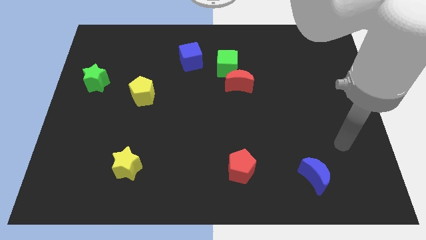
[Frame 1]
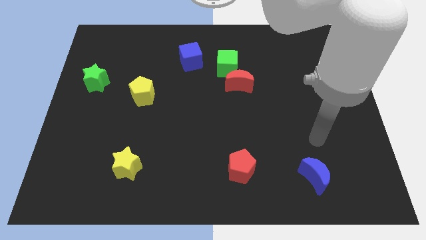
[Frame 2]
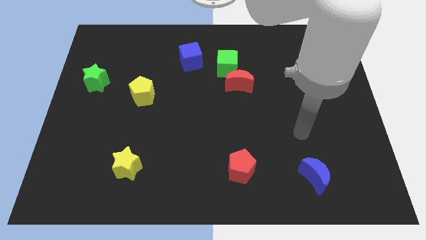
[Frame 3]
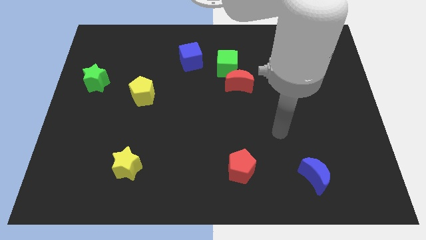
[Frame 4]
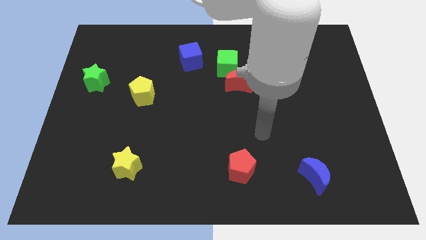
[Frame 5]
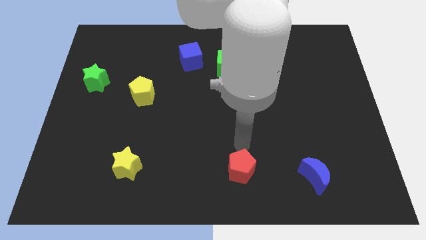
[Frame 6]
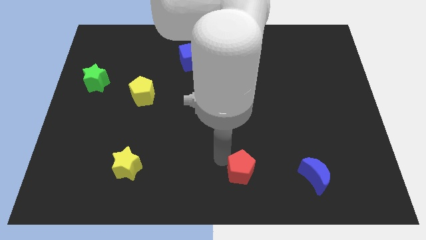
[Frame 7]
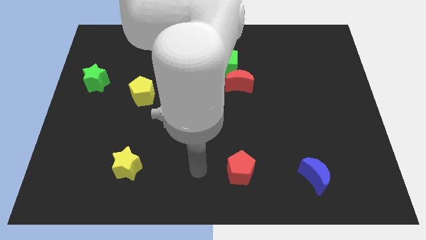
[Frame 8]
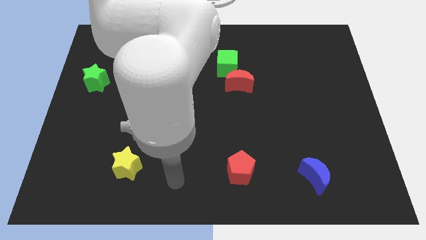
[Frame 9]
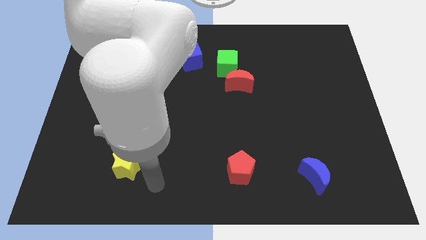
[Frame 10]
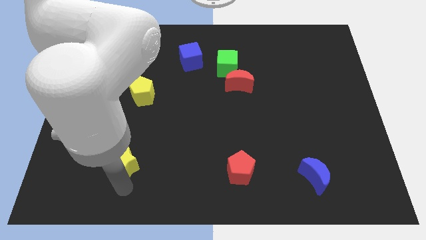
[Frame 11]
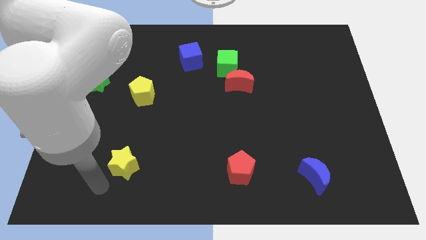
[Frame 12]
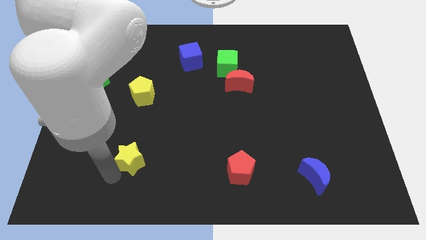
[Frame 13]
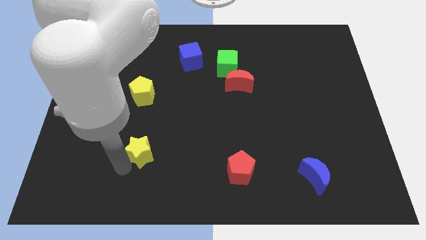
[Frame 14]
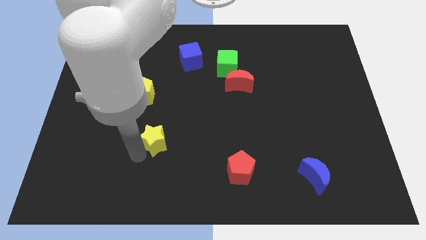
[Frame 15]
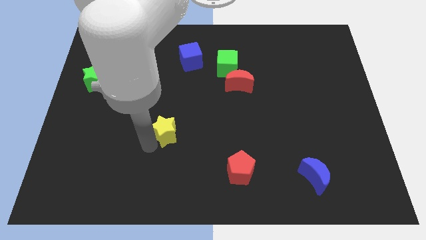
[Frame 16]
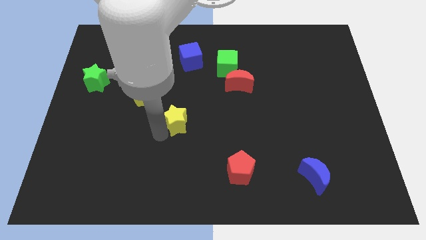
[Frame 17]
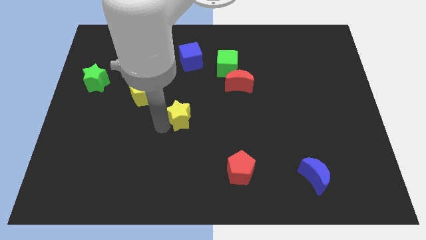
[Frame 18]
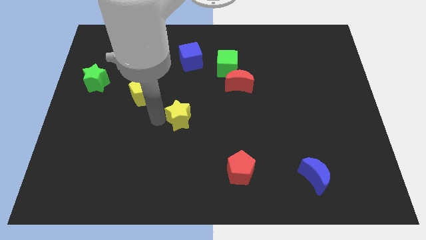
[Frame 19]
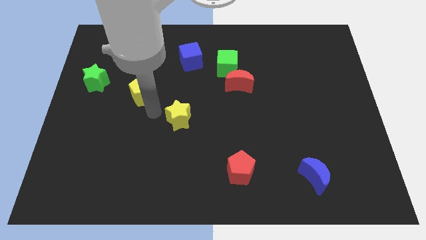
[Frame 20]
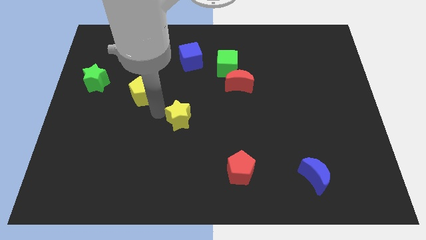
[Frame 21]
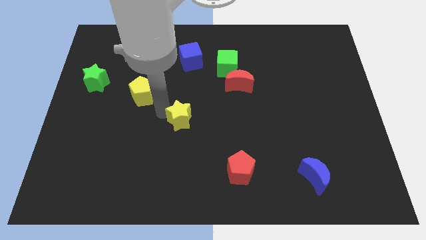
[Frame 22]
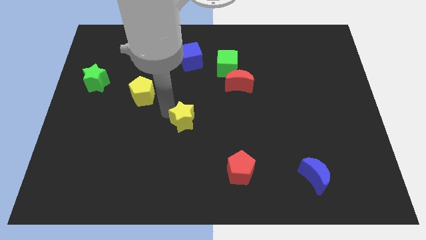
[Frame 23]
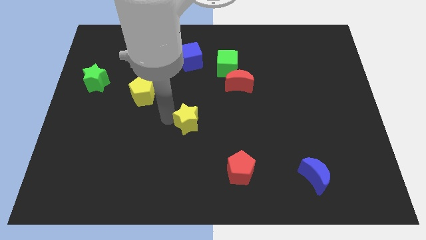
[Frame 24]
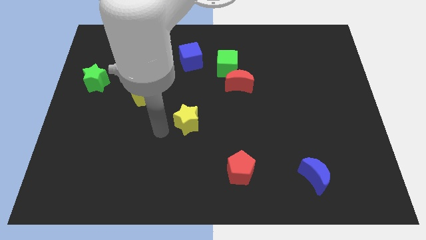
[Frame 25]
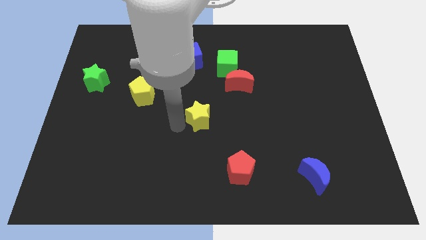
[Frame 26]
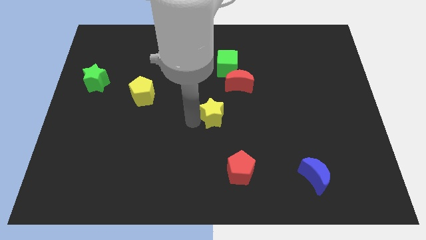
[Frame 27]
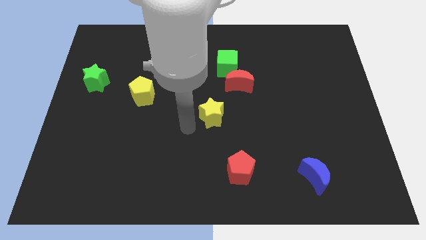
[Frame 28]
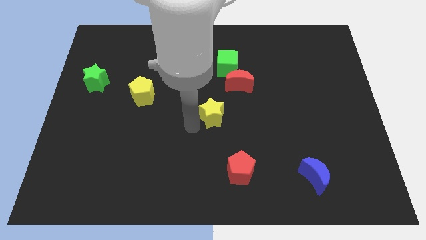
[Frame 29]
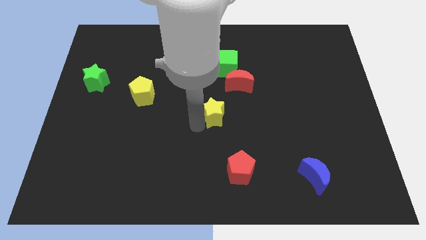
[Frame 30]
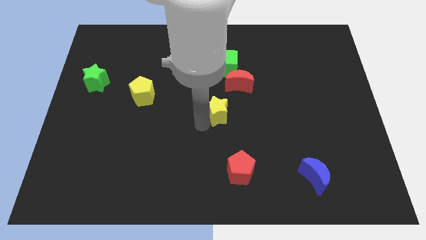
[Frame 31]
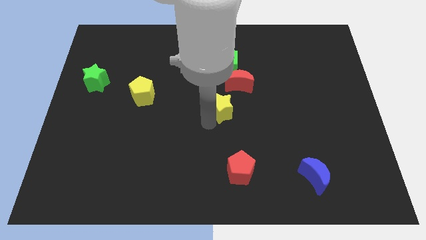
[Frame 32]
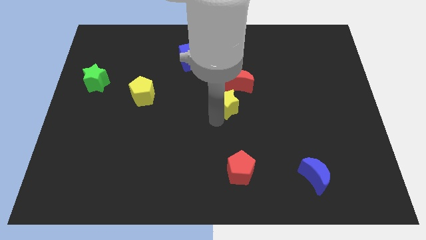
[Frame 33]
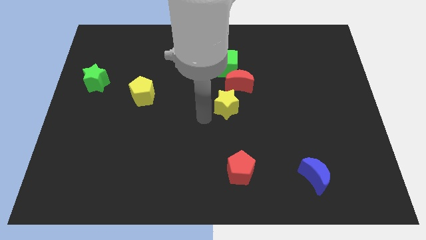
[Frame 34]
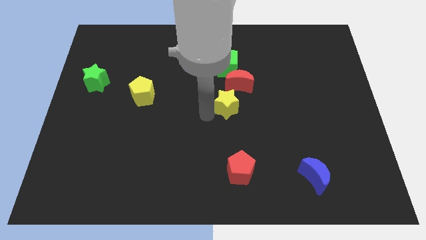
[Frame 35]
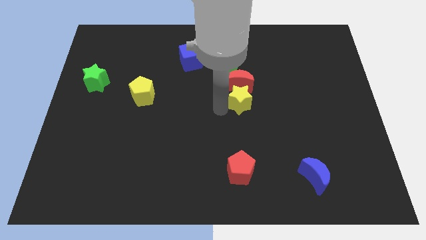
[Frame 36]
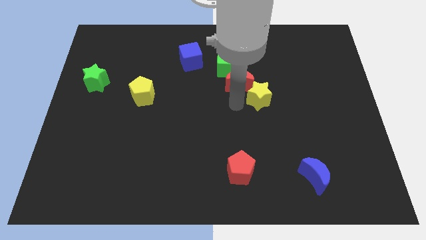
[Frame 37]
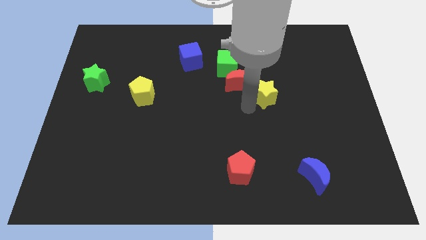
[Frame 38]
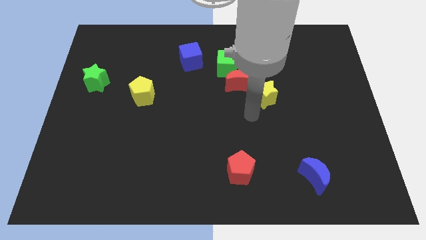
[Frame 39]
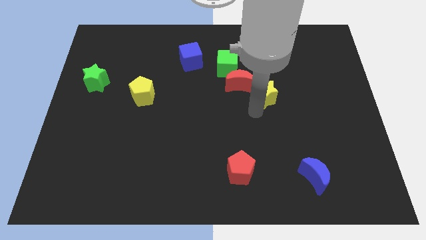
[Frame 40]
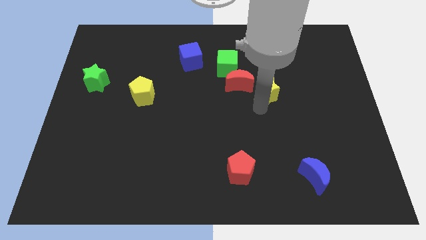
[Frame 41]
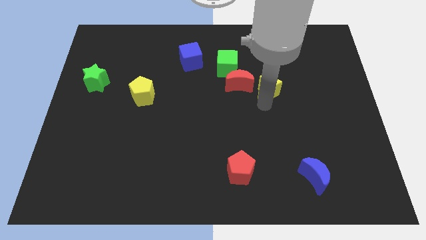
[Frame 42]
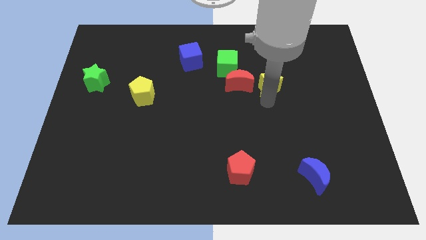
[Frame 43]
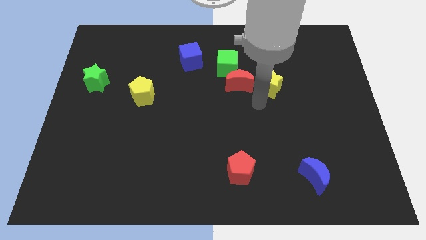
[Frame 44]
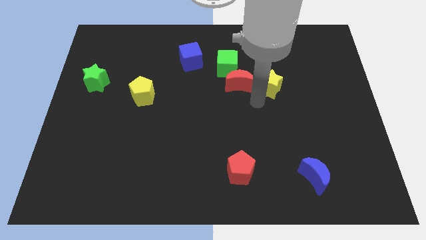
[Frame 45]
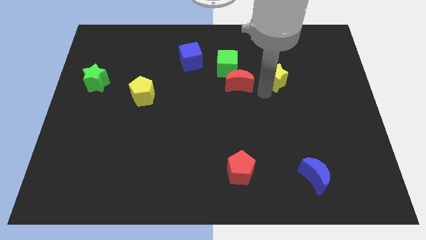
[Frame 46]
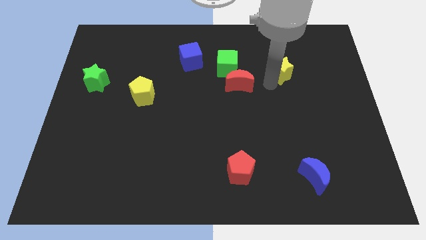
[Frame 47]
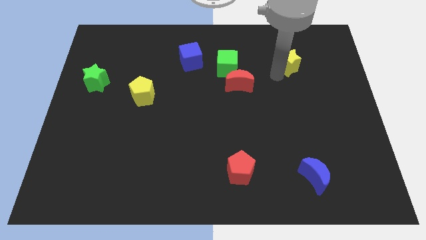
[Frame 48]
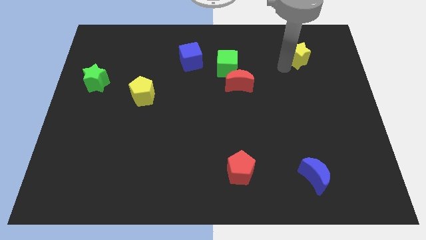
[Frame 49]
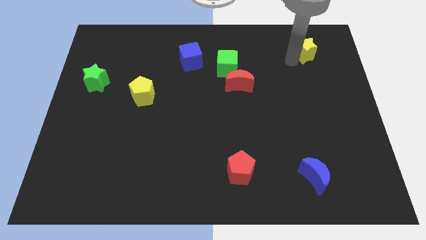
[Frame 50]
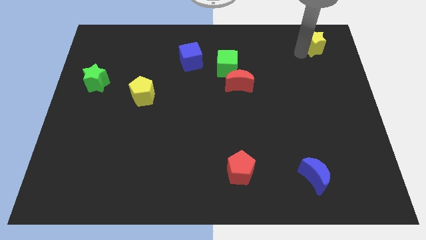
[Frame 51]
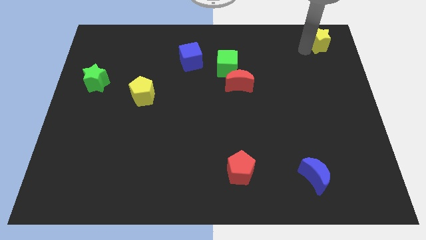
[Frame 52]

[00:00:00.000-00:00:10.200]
put the yellow star to the top right corner

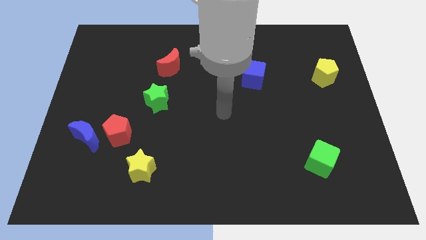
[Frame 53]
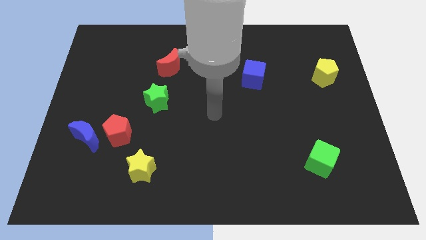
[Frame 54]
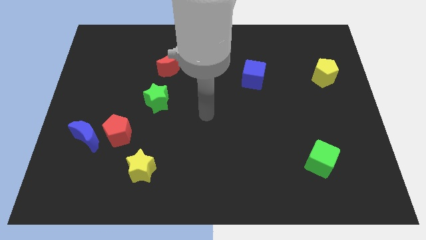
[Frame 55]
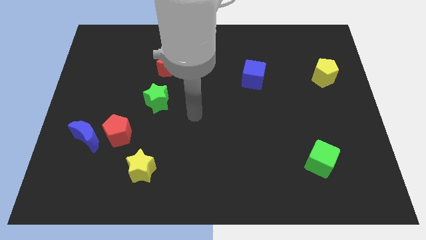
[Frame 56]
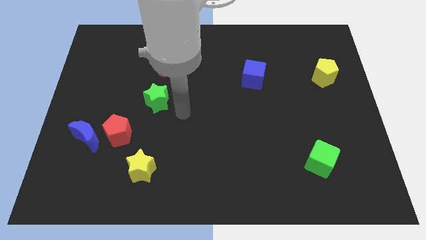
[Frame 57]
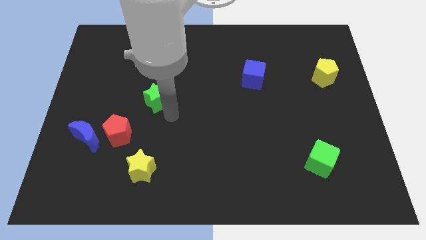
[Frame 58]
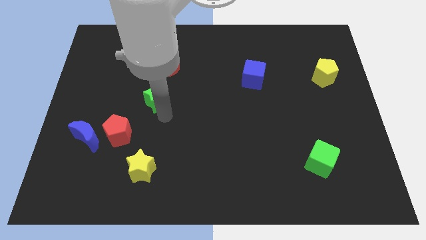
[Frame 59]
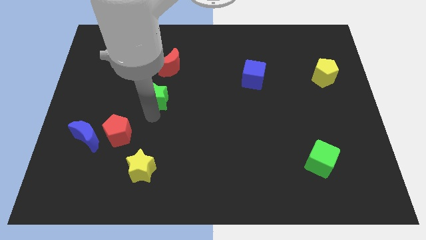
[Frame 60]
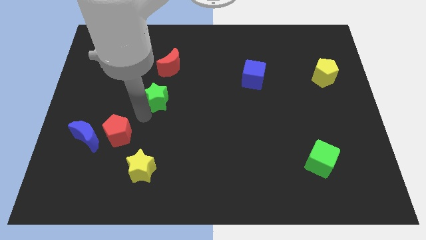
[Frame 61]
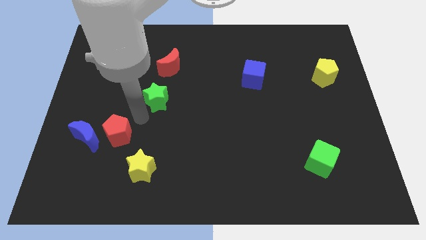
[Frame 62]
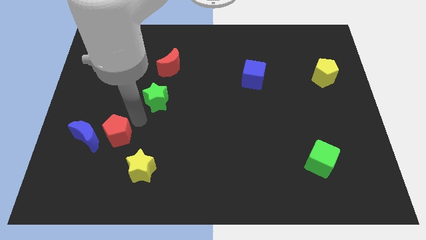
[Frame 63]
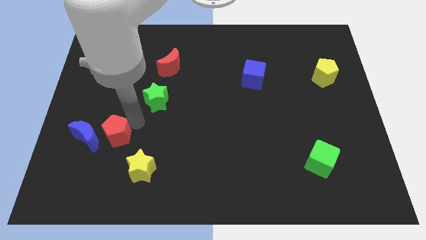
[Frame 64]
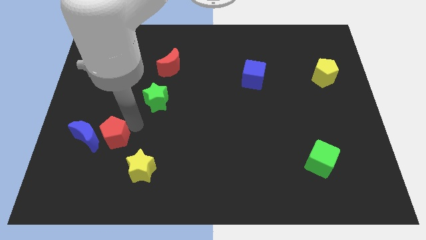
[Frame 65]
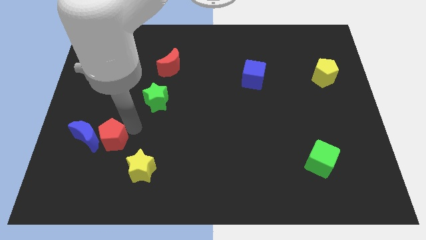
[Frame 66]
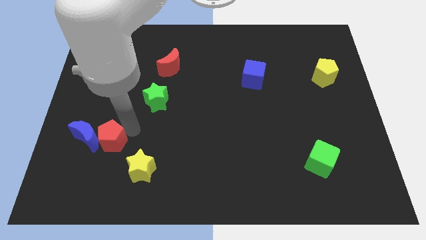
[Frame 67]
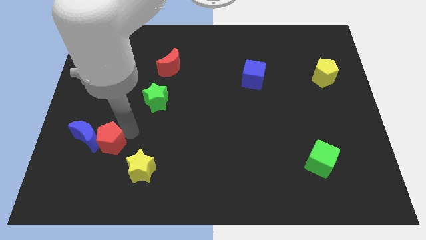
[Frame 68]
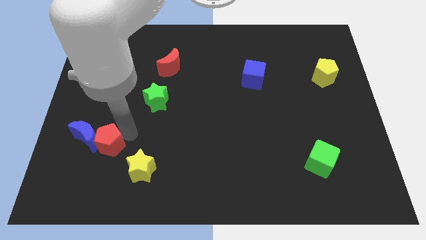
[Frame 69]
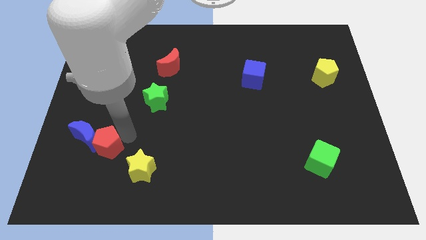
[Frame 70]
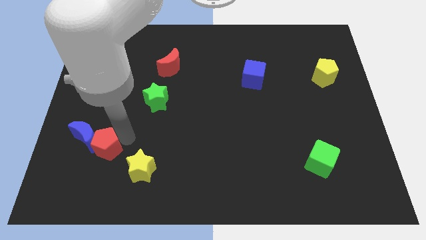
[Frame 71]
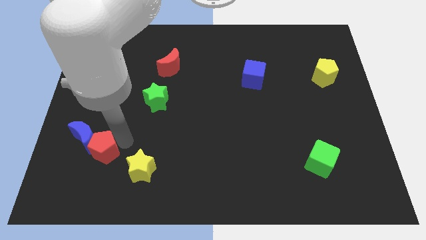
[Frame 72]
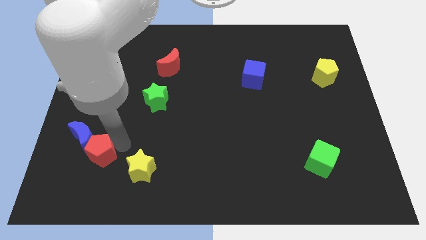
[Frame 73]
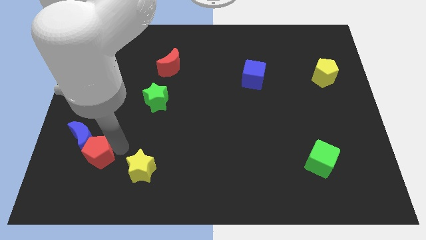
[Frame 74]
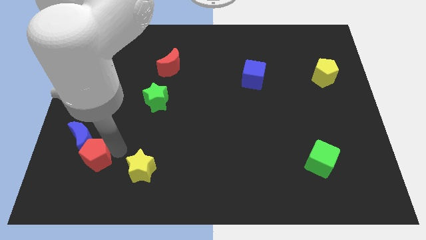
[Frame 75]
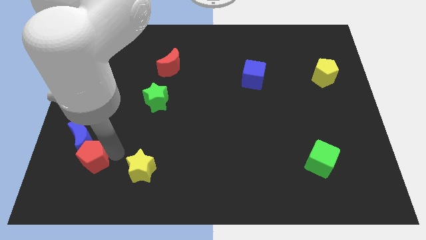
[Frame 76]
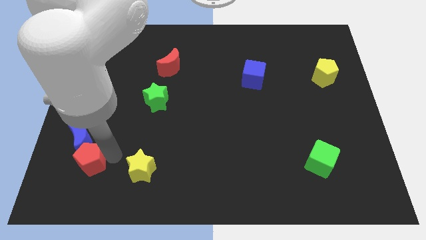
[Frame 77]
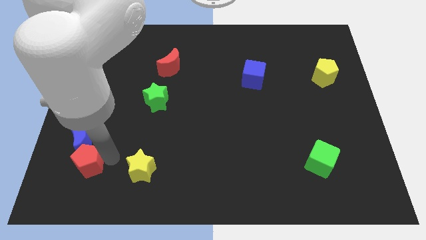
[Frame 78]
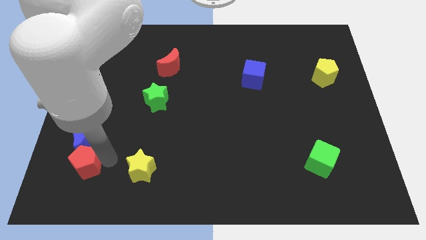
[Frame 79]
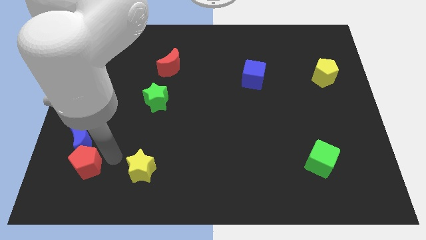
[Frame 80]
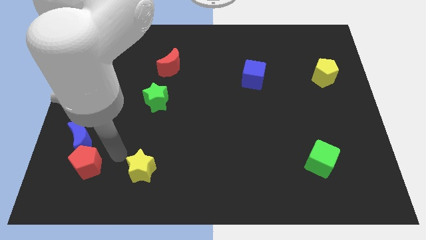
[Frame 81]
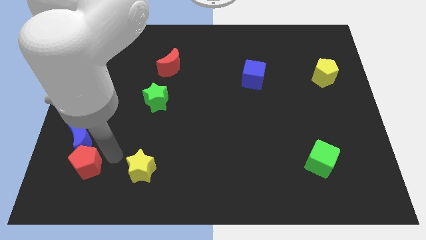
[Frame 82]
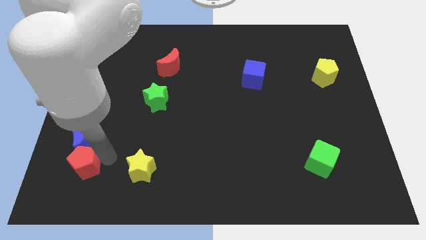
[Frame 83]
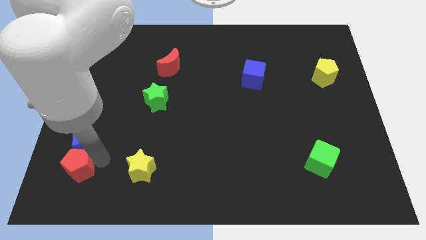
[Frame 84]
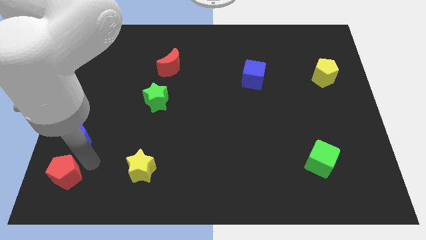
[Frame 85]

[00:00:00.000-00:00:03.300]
move the red pentagon to the bottom left of the board
